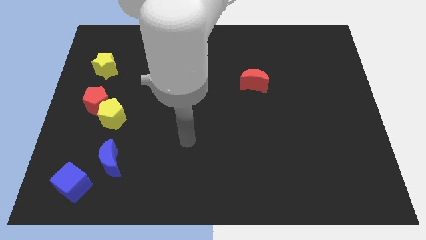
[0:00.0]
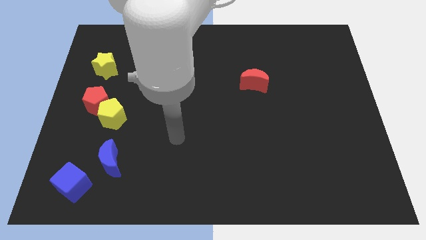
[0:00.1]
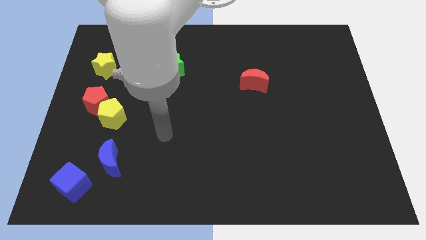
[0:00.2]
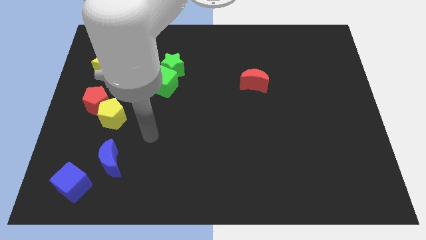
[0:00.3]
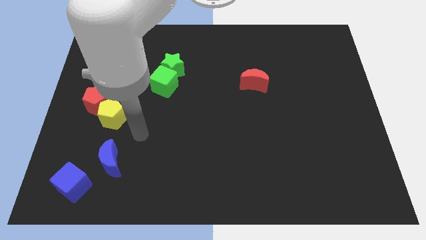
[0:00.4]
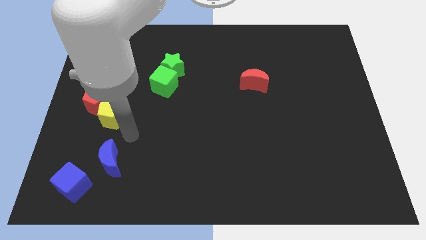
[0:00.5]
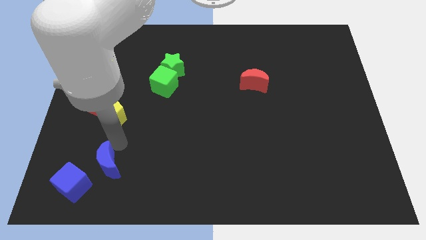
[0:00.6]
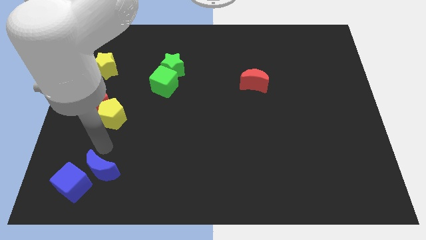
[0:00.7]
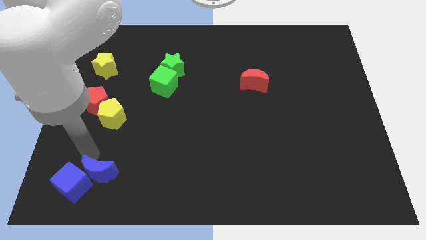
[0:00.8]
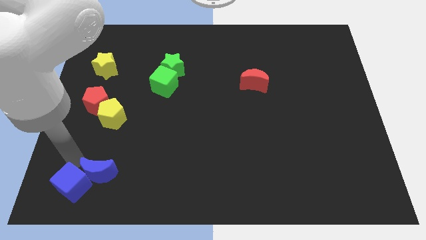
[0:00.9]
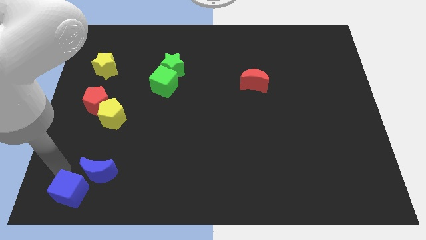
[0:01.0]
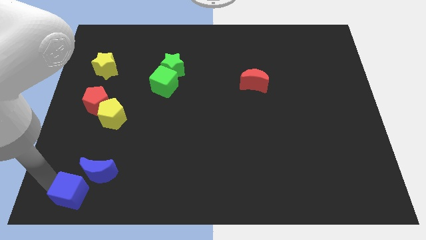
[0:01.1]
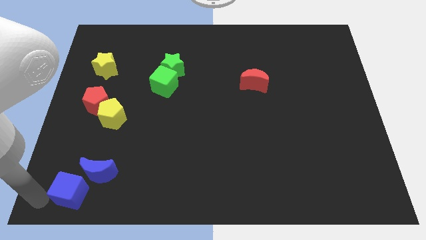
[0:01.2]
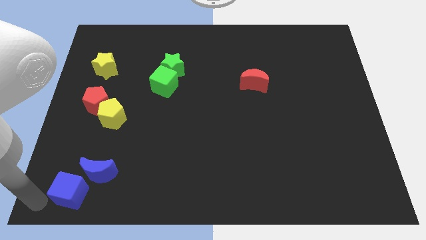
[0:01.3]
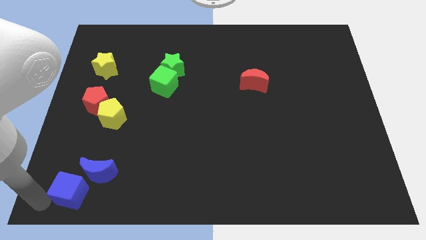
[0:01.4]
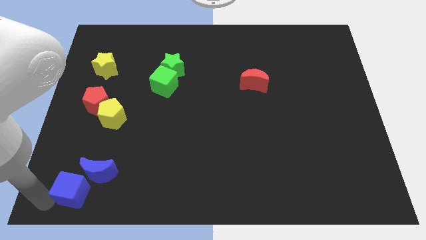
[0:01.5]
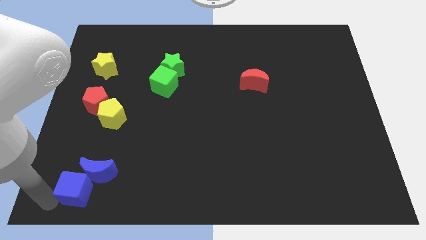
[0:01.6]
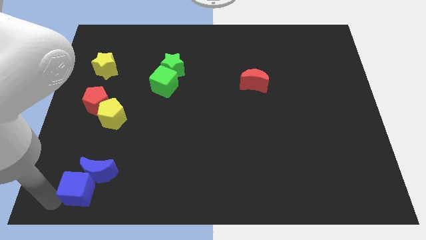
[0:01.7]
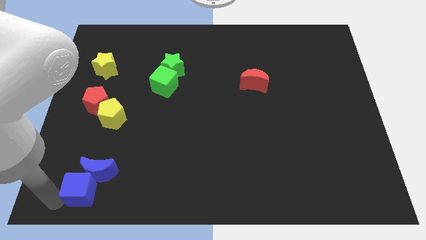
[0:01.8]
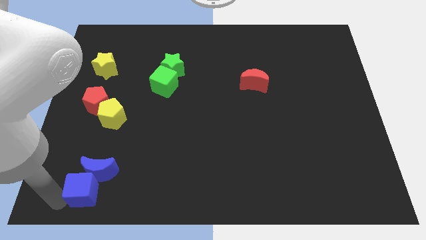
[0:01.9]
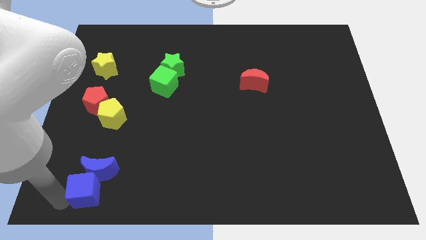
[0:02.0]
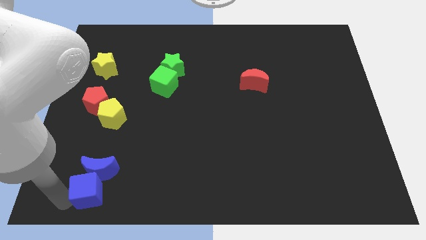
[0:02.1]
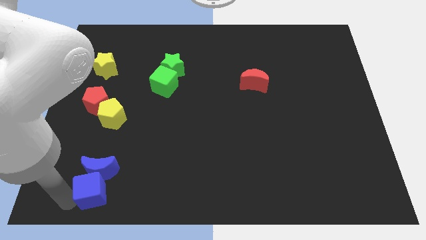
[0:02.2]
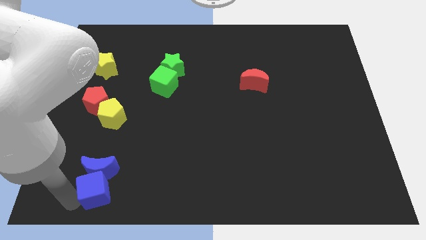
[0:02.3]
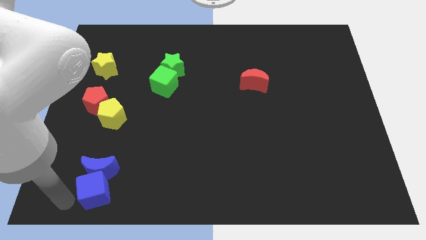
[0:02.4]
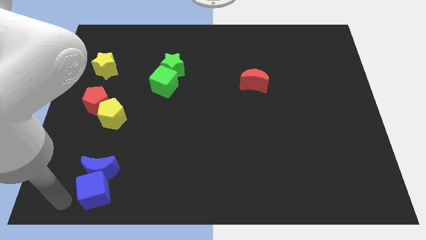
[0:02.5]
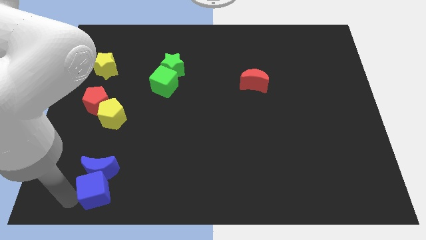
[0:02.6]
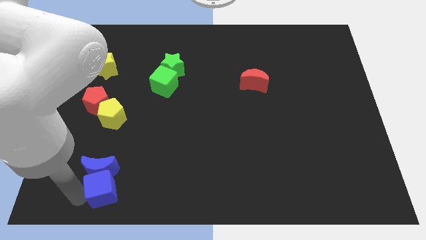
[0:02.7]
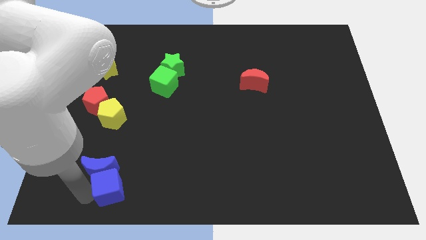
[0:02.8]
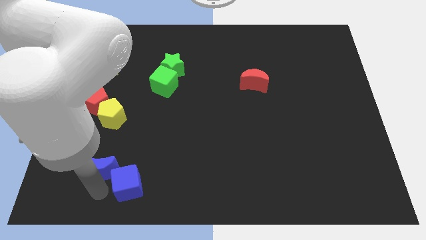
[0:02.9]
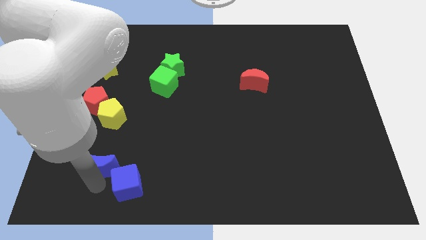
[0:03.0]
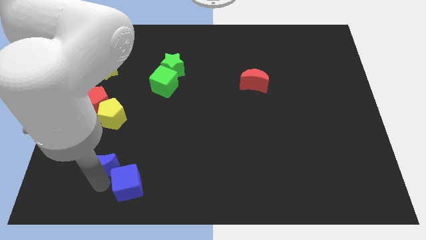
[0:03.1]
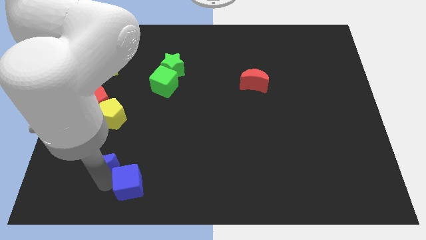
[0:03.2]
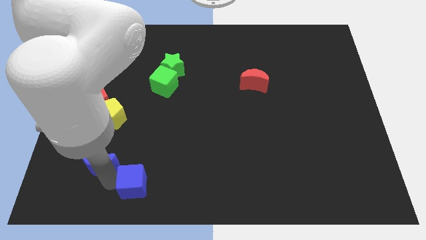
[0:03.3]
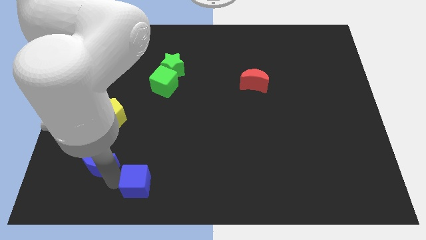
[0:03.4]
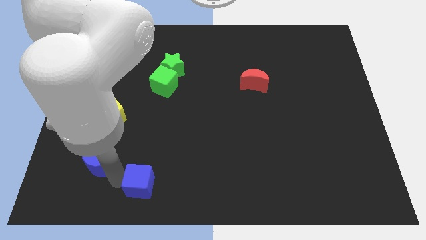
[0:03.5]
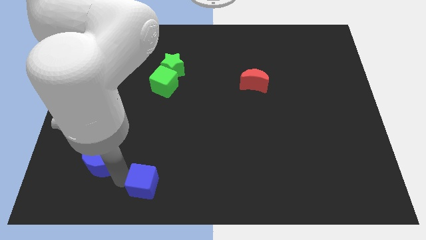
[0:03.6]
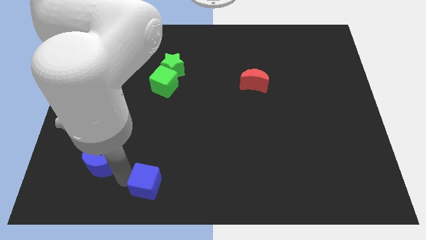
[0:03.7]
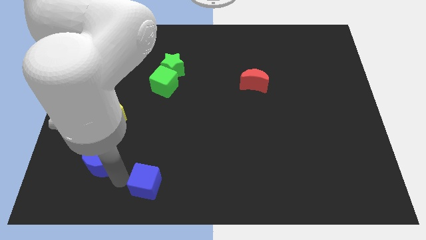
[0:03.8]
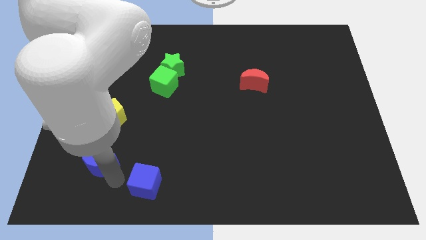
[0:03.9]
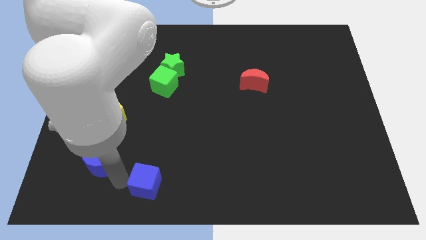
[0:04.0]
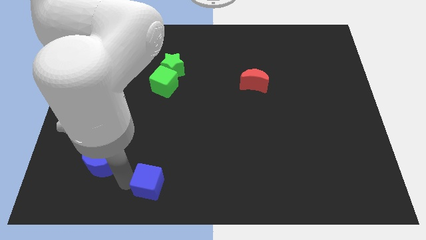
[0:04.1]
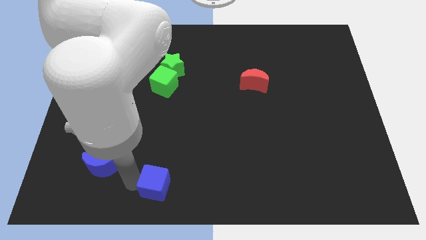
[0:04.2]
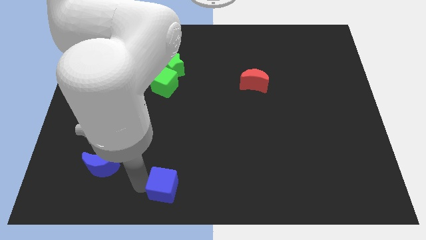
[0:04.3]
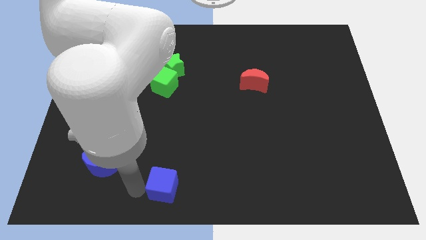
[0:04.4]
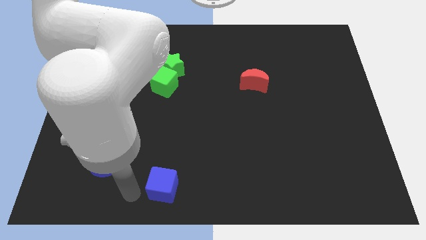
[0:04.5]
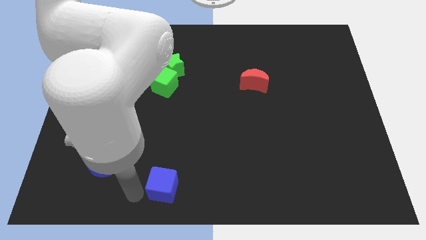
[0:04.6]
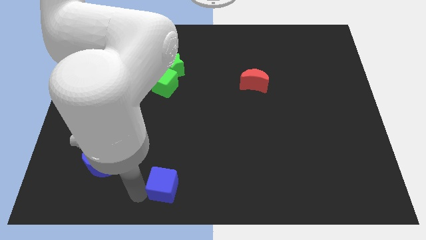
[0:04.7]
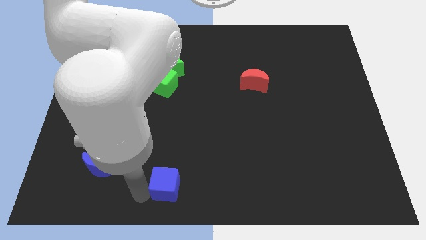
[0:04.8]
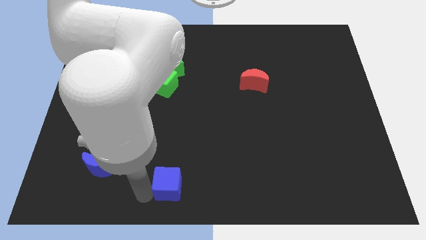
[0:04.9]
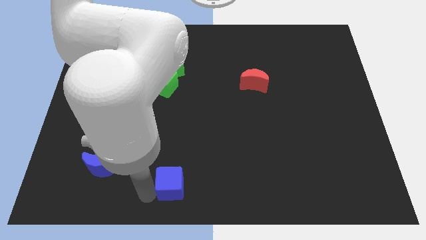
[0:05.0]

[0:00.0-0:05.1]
move the blue cube right

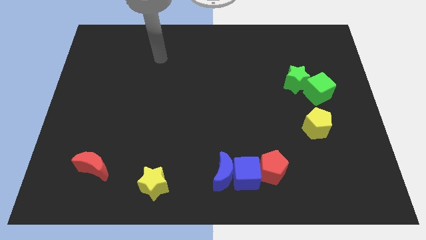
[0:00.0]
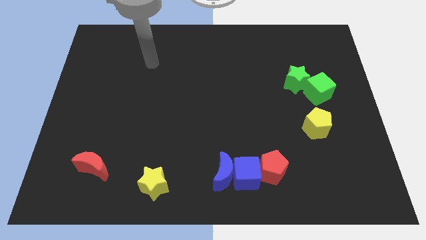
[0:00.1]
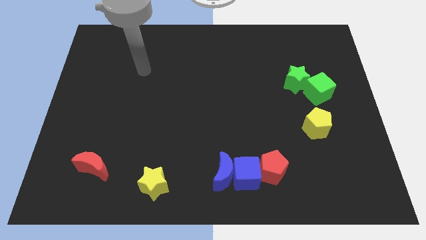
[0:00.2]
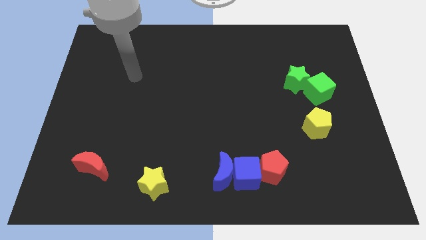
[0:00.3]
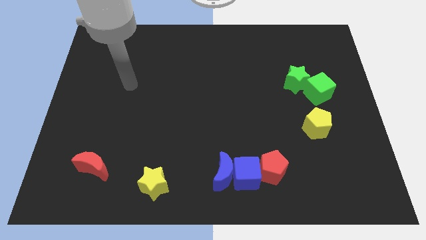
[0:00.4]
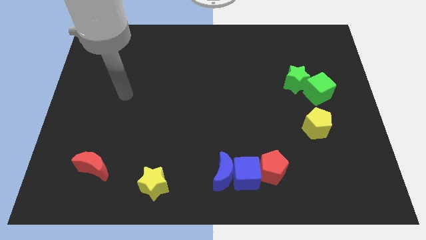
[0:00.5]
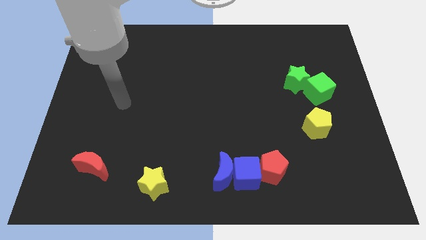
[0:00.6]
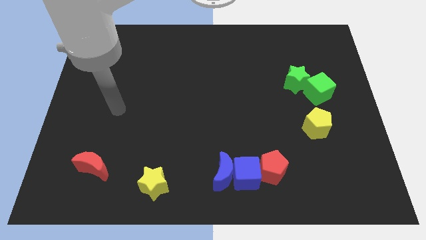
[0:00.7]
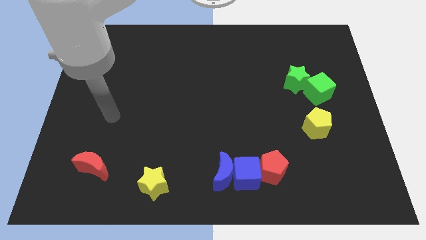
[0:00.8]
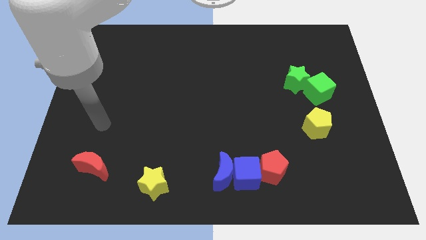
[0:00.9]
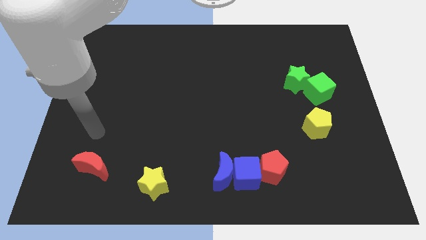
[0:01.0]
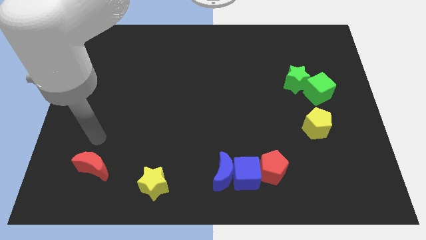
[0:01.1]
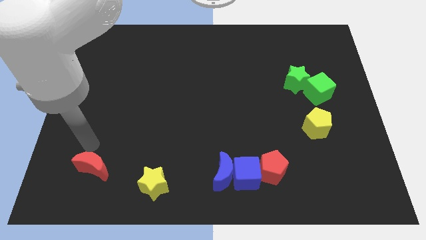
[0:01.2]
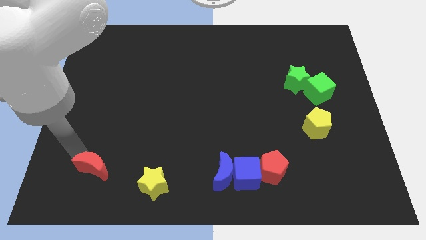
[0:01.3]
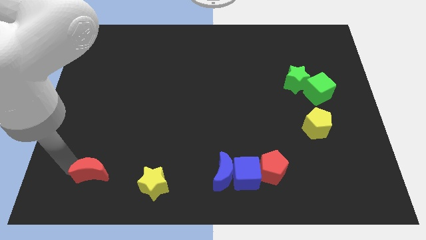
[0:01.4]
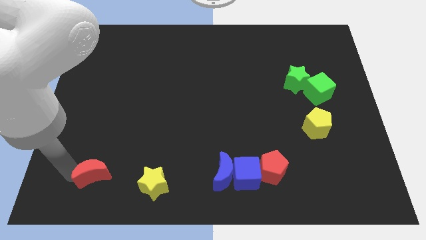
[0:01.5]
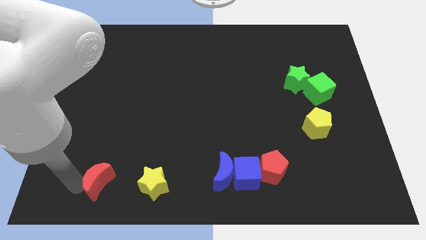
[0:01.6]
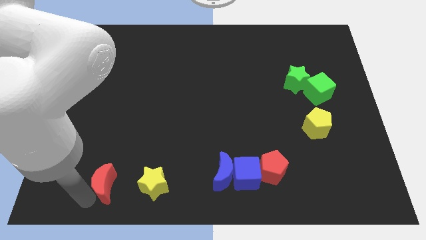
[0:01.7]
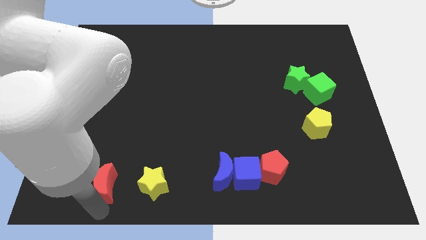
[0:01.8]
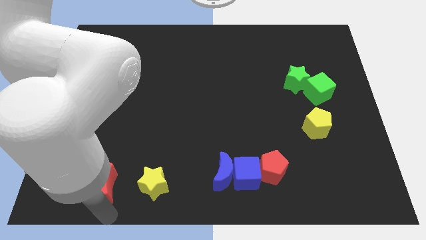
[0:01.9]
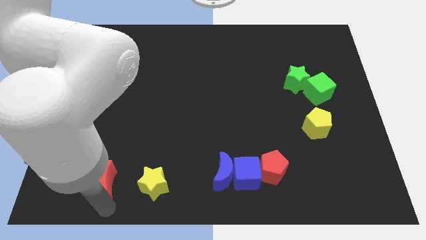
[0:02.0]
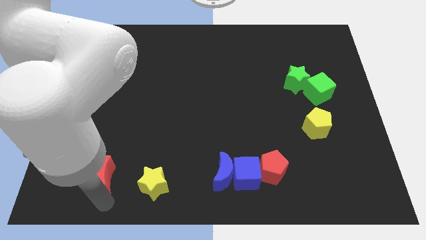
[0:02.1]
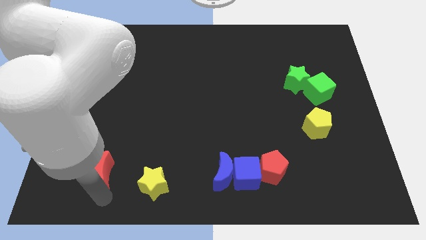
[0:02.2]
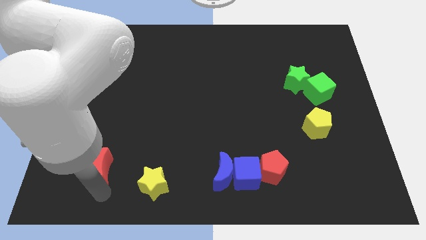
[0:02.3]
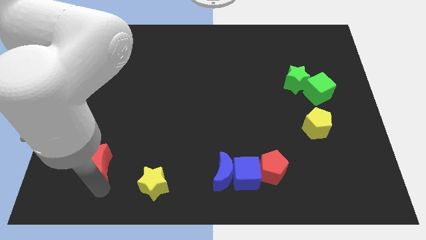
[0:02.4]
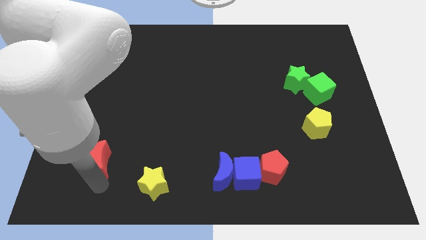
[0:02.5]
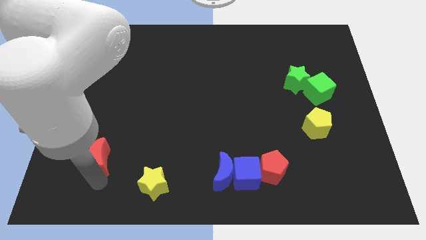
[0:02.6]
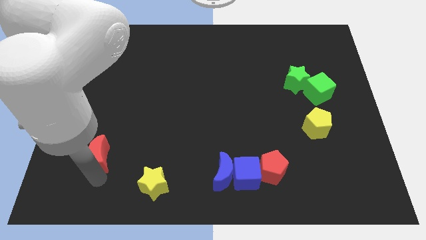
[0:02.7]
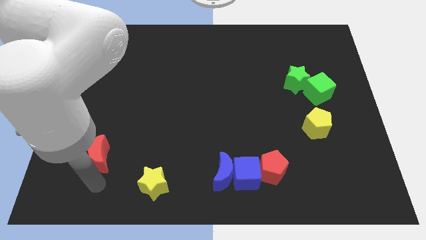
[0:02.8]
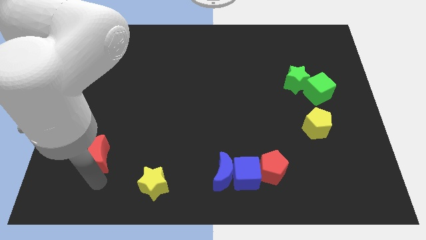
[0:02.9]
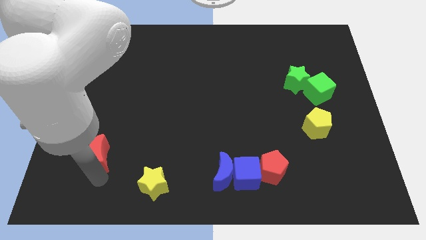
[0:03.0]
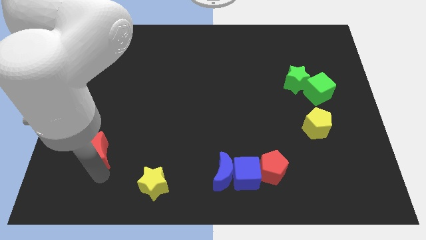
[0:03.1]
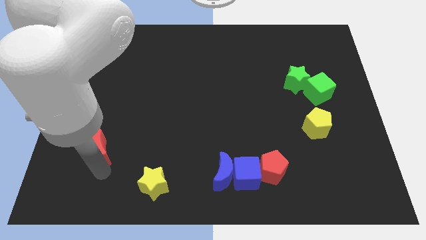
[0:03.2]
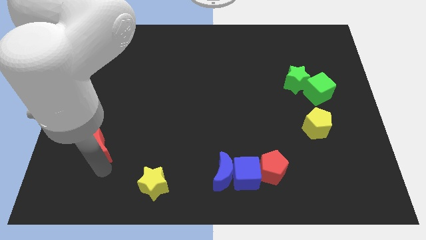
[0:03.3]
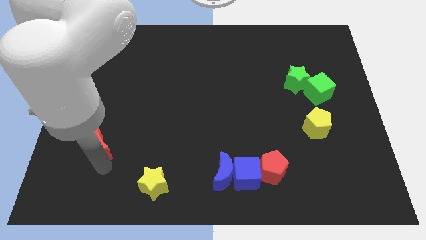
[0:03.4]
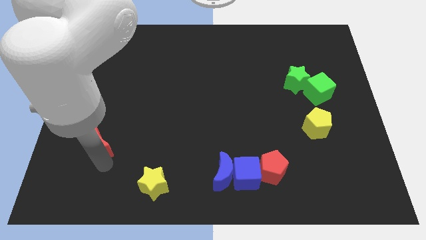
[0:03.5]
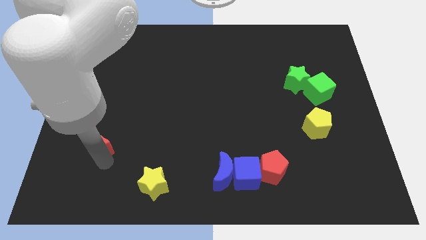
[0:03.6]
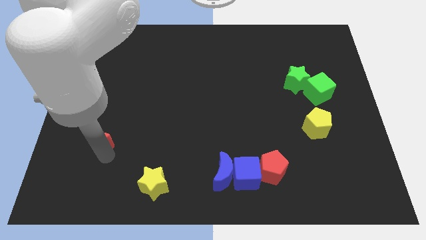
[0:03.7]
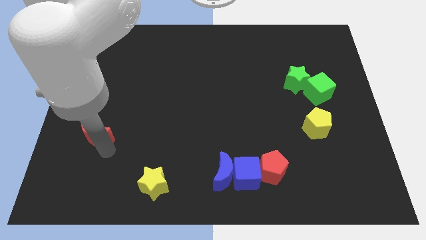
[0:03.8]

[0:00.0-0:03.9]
move the red moon somewhat up
